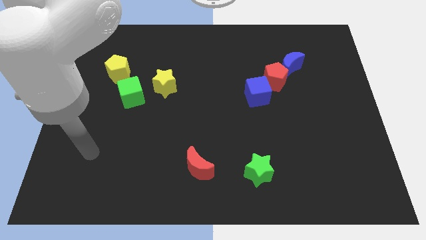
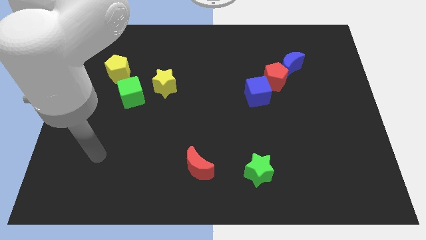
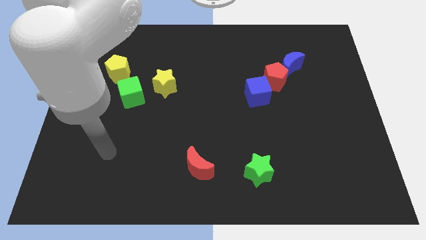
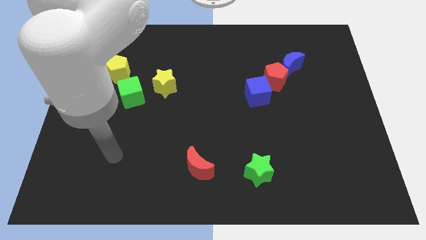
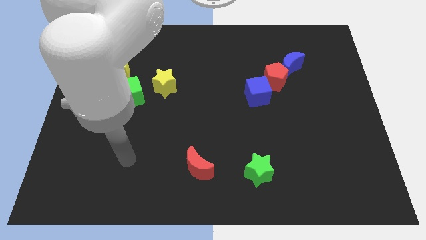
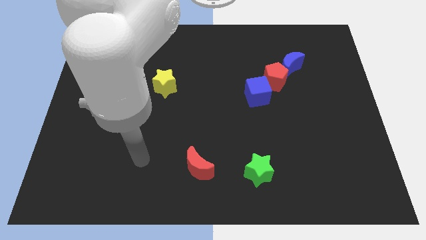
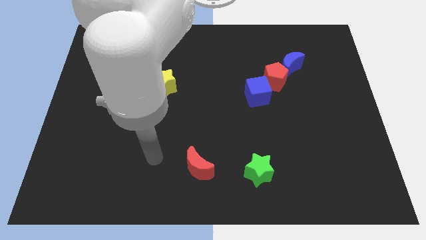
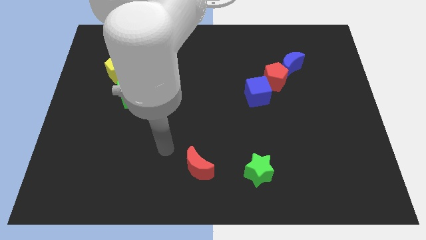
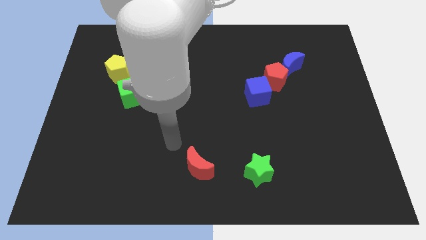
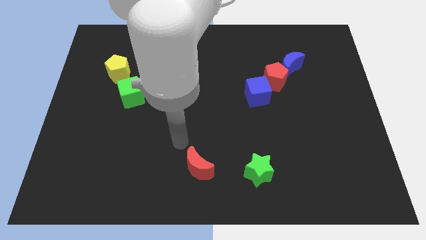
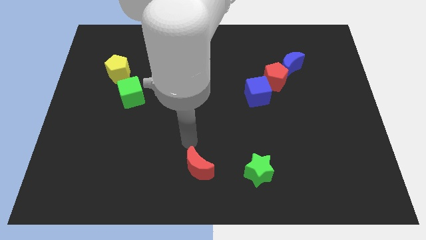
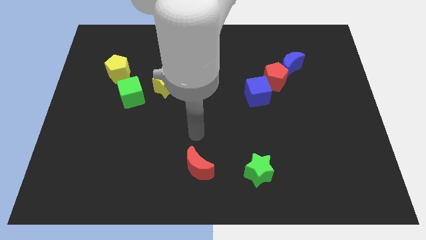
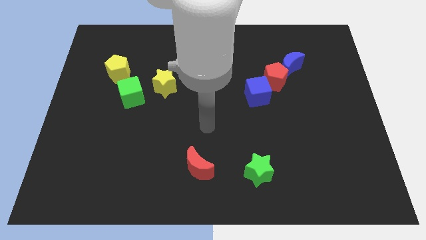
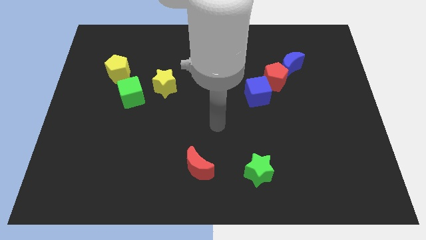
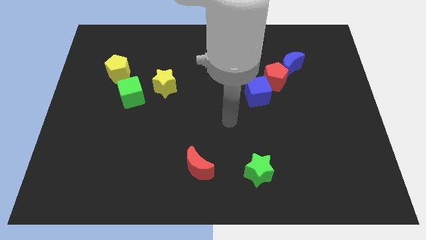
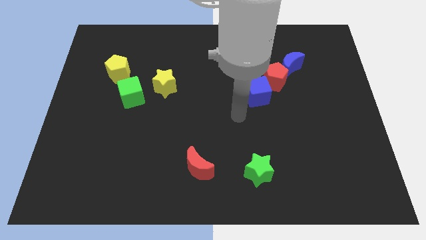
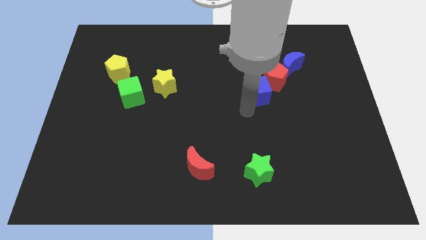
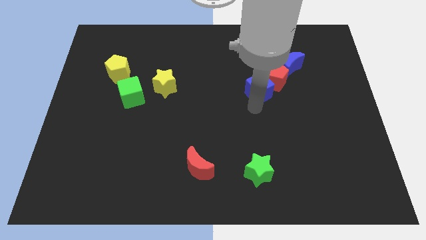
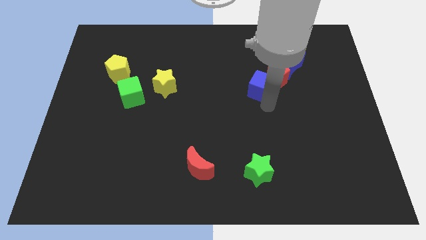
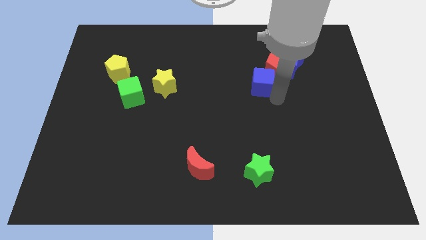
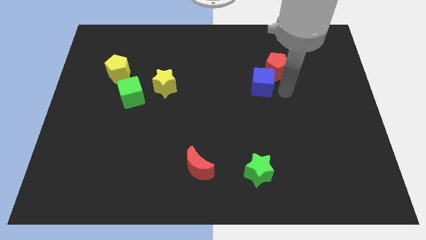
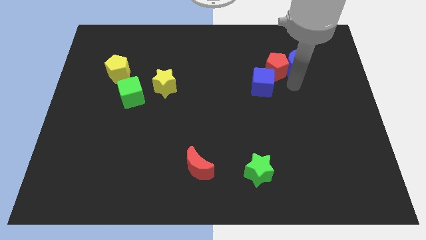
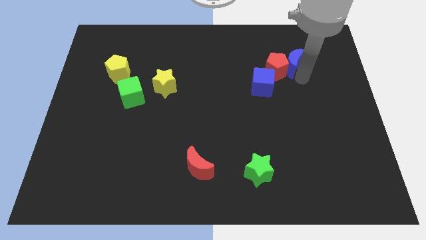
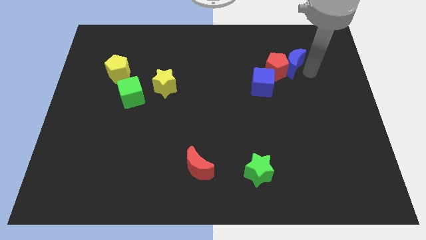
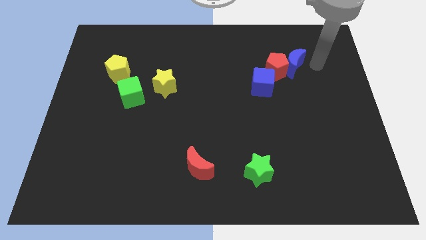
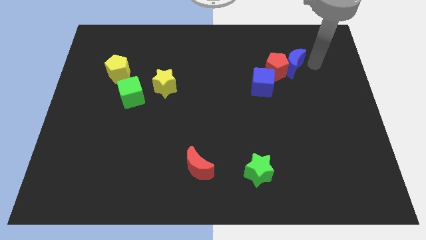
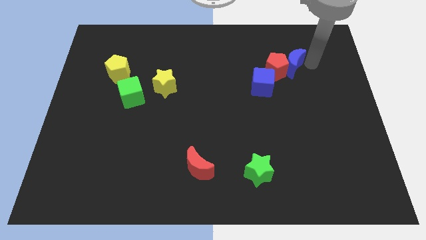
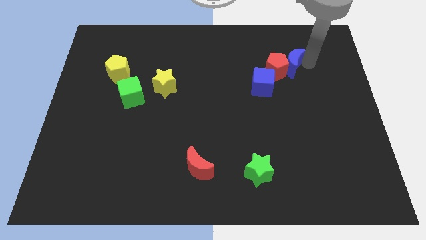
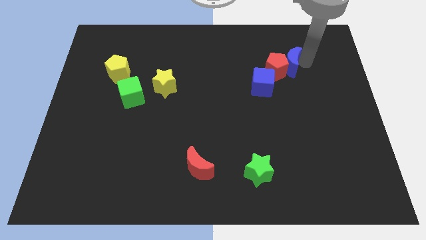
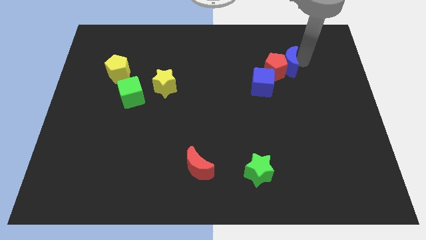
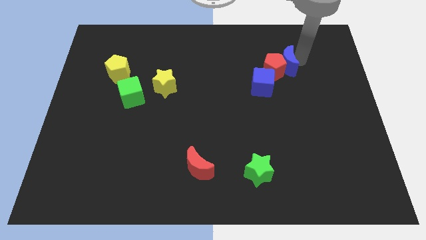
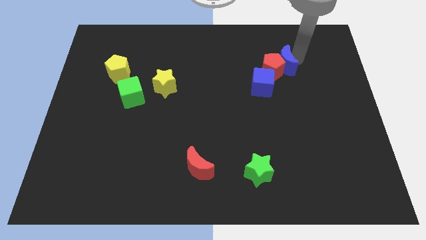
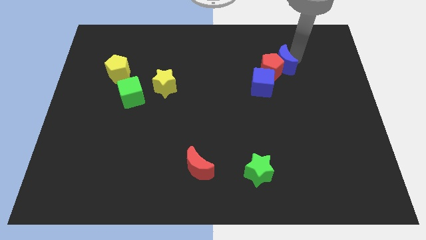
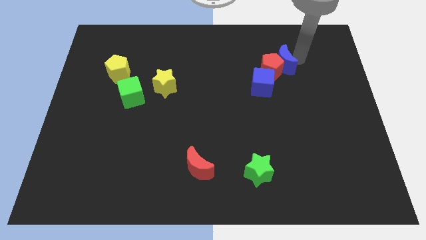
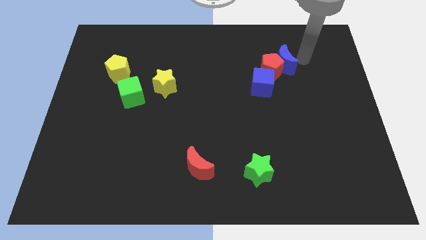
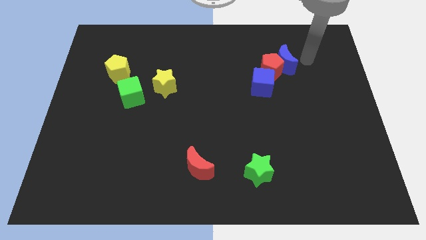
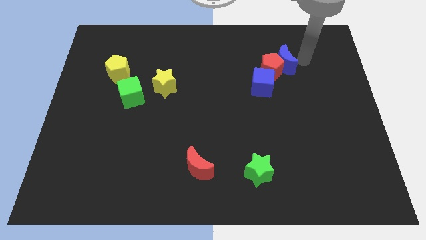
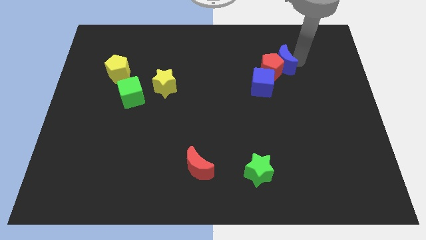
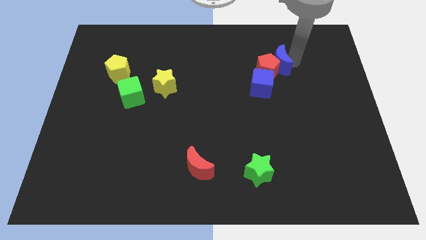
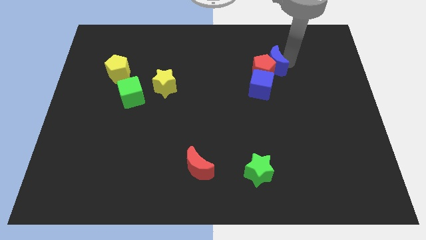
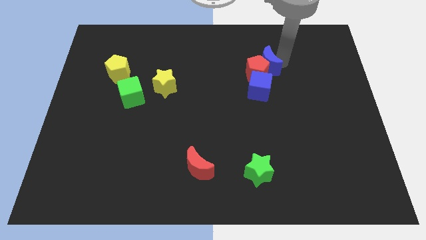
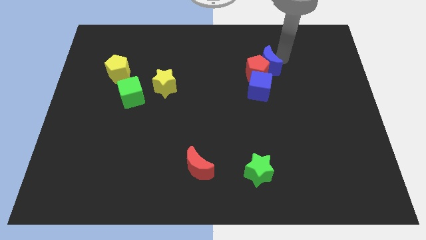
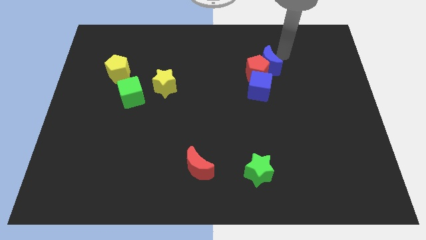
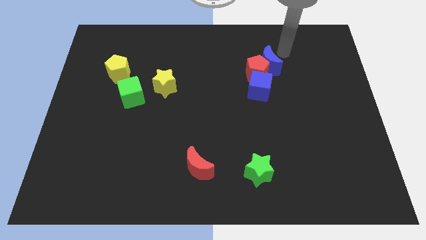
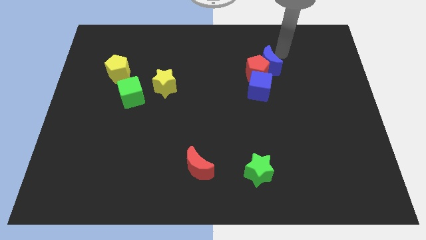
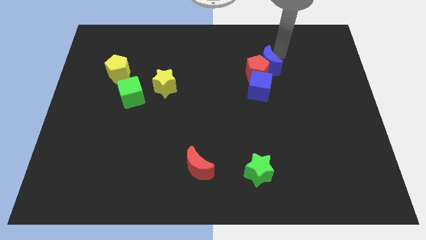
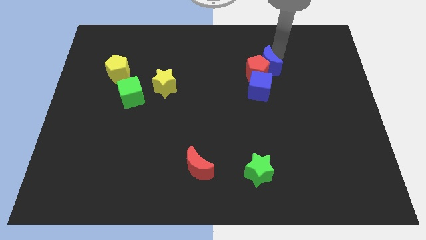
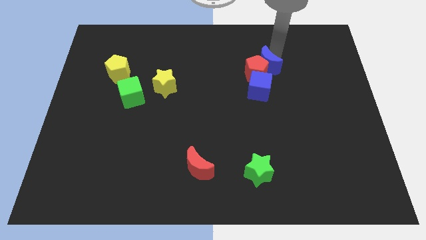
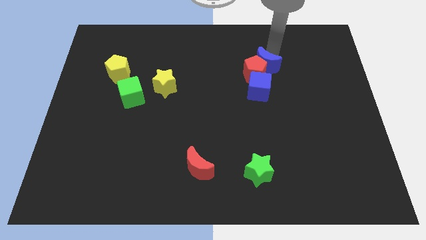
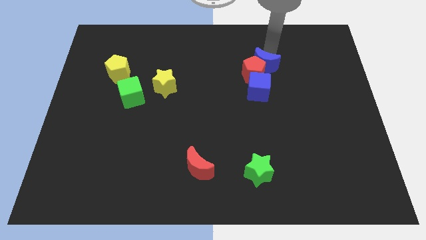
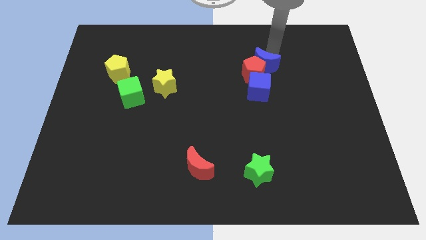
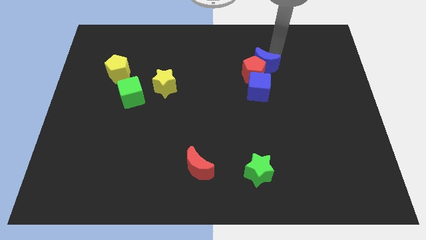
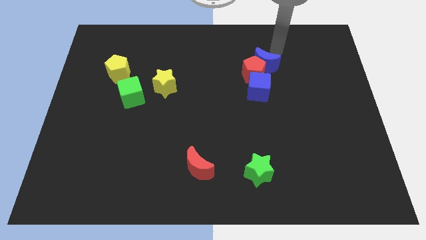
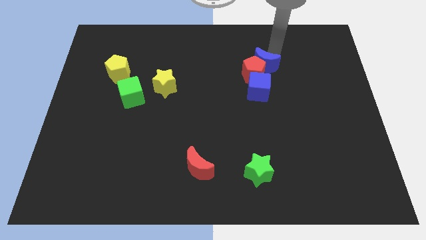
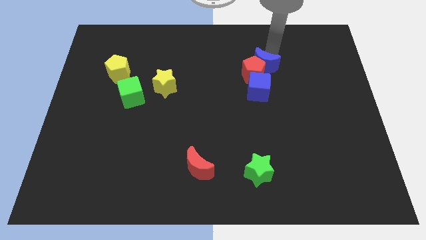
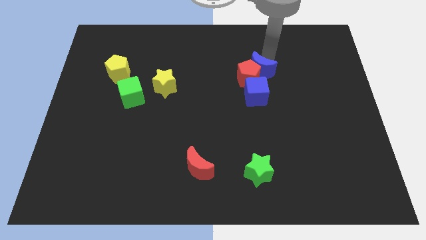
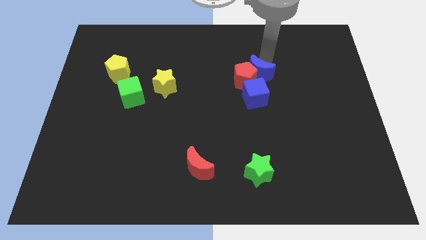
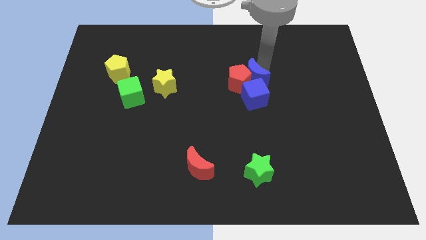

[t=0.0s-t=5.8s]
push the blue moon a little bit diagonally down and left

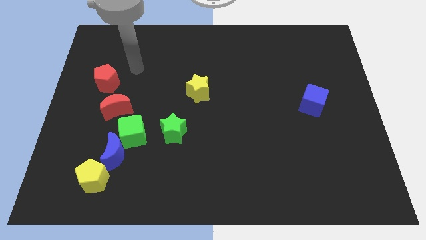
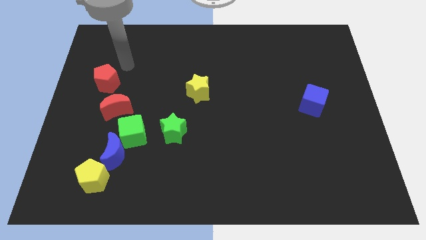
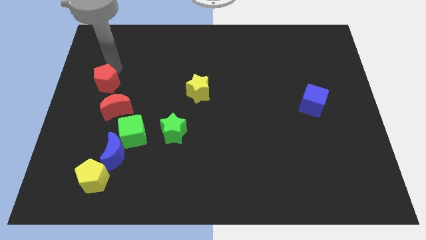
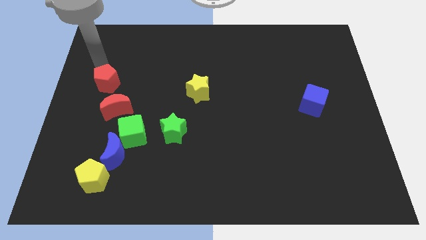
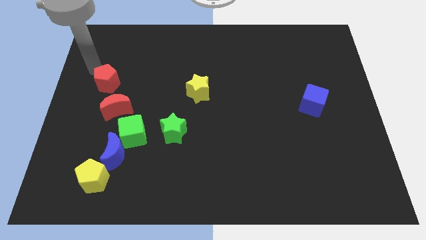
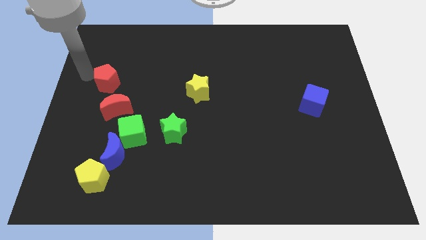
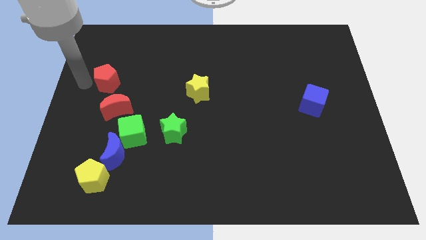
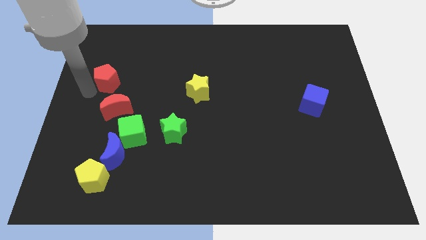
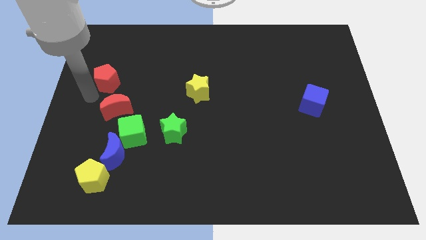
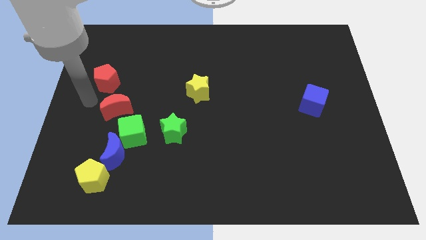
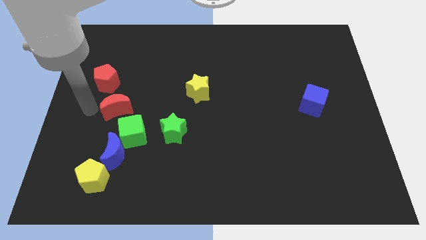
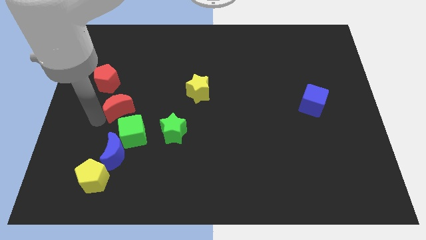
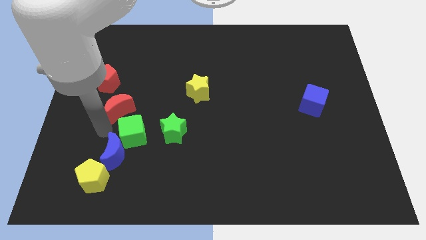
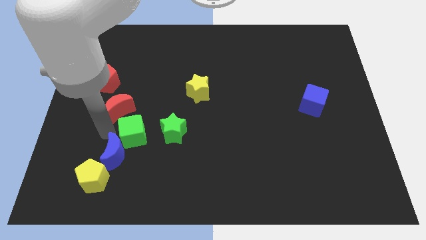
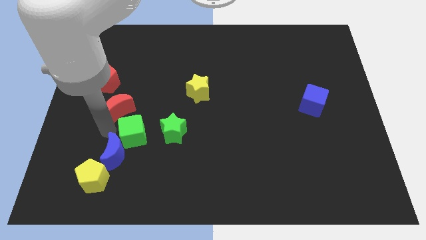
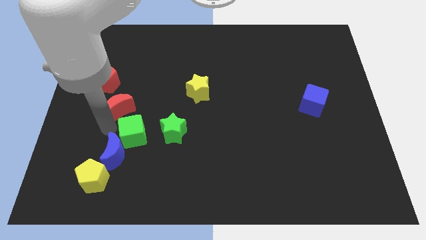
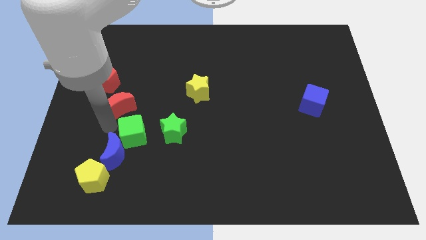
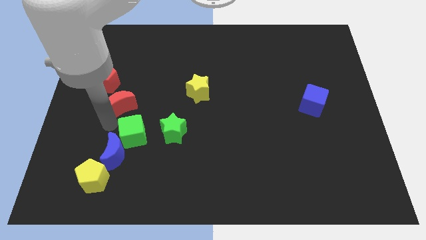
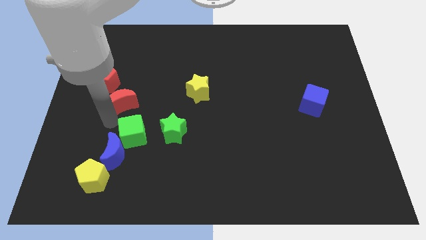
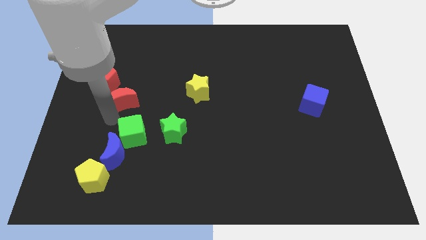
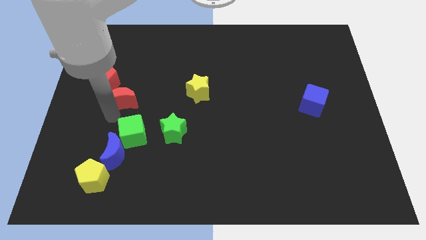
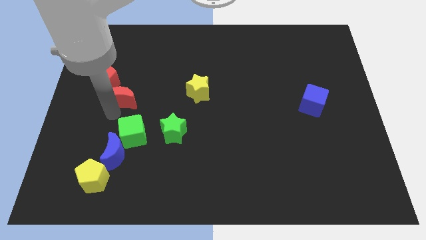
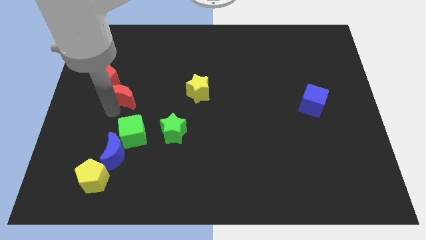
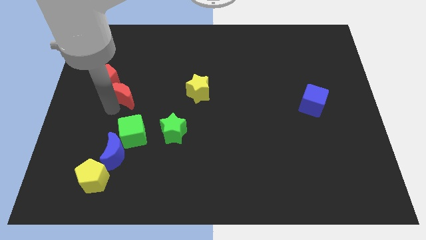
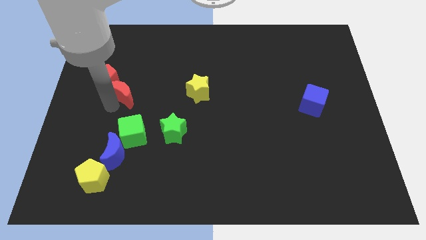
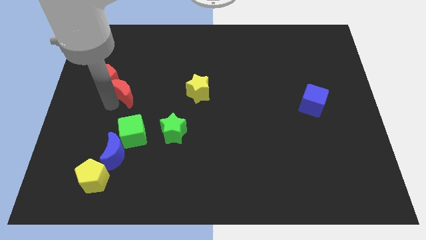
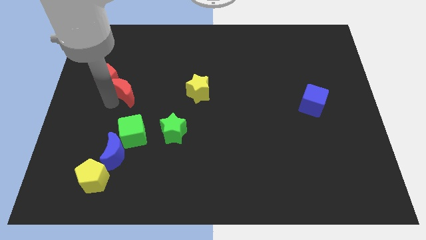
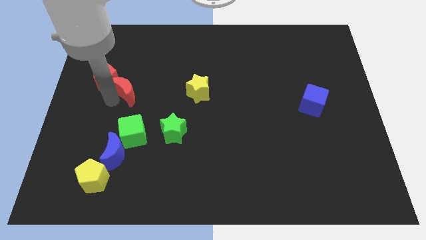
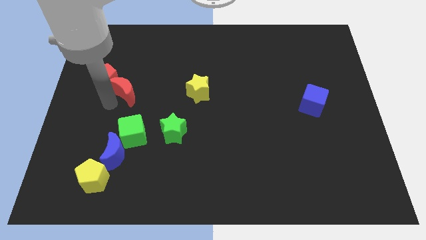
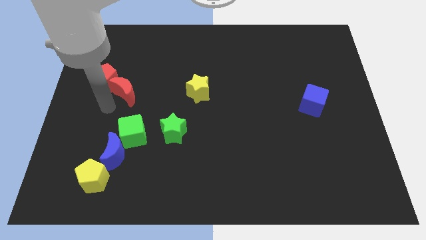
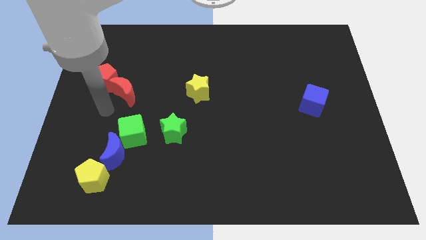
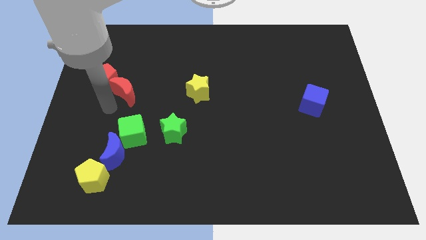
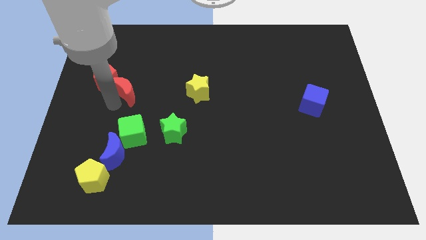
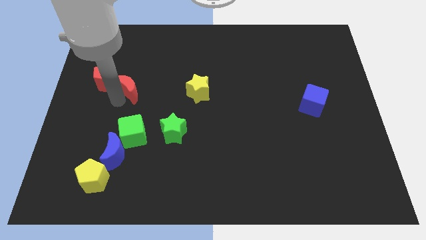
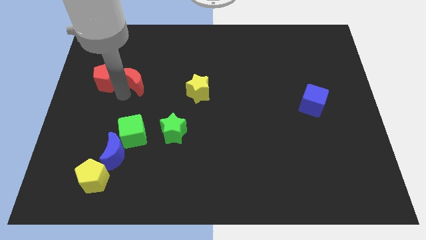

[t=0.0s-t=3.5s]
slide the red moon diagonally upwards and right a little
